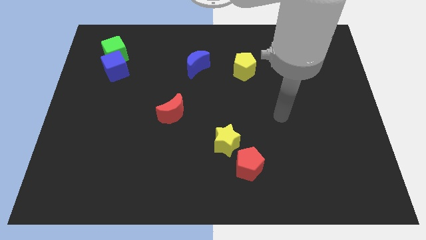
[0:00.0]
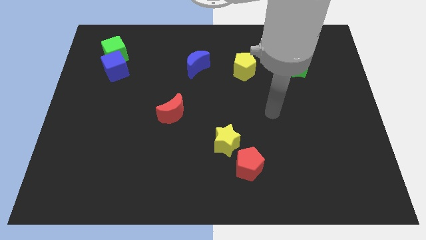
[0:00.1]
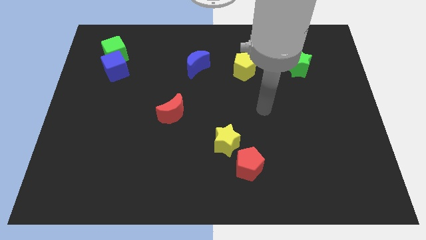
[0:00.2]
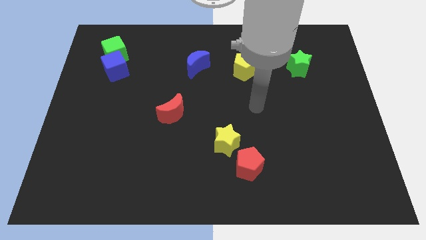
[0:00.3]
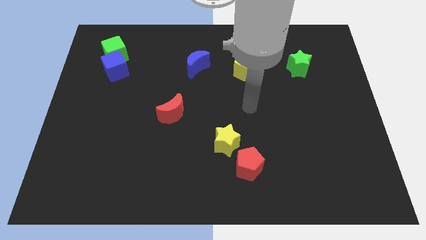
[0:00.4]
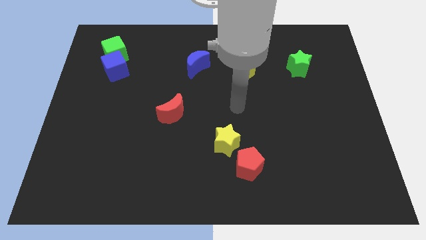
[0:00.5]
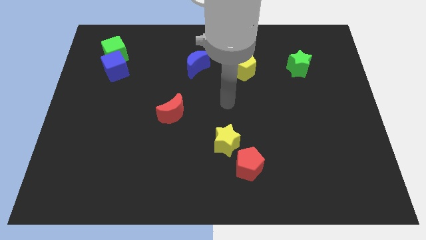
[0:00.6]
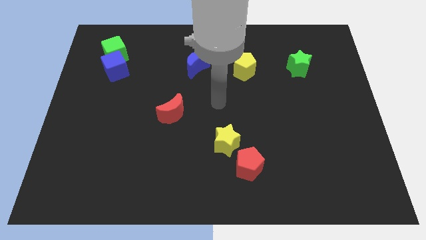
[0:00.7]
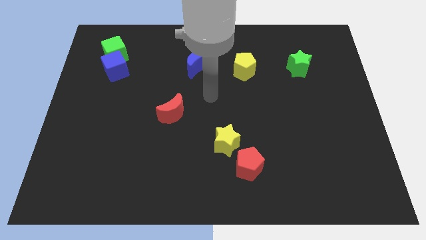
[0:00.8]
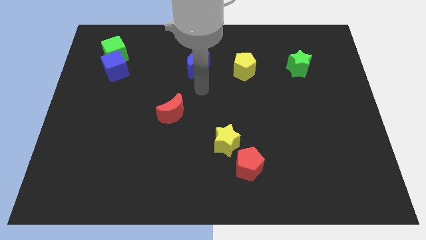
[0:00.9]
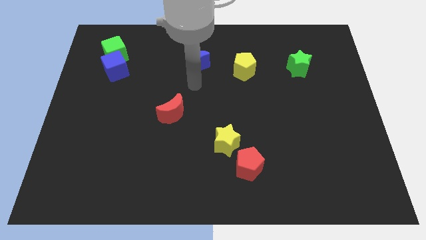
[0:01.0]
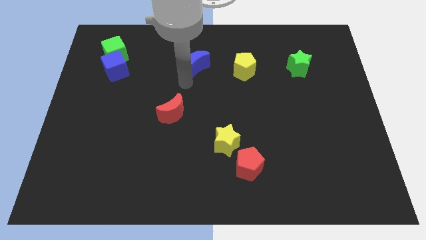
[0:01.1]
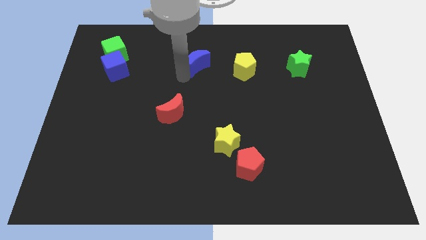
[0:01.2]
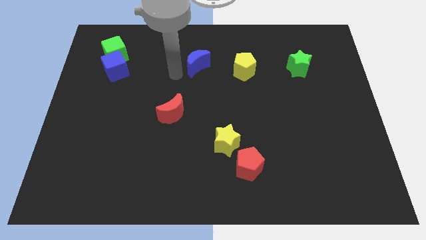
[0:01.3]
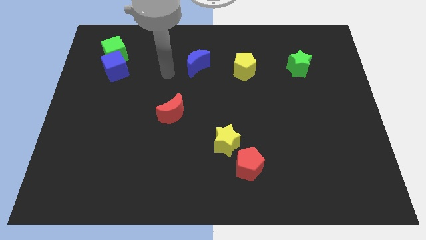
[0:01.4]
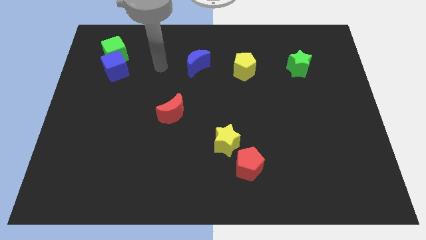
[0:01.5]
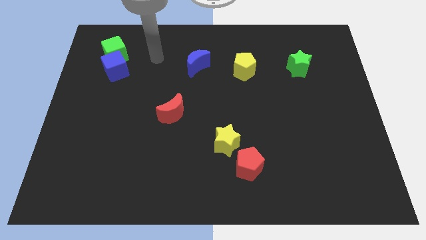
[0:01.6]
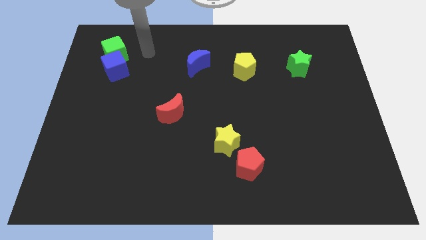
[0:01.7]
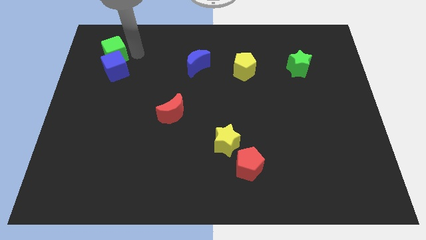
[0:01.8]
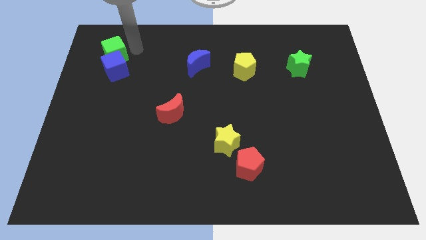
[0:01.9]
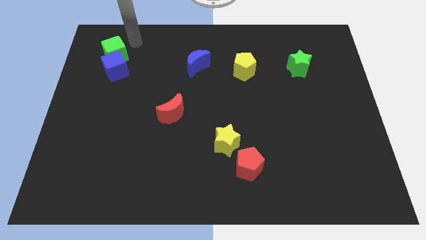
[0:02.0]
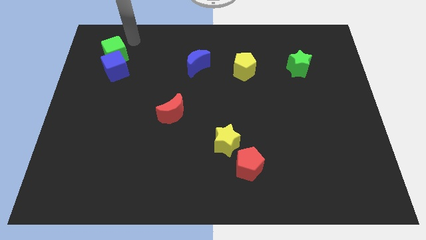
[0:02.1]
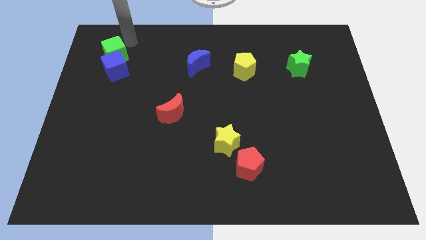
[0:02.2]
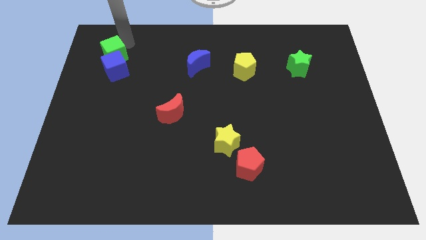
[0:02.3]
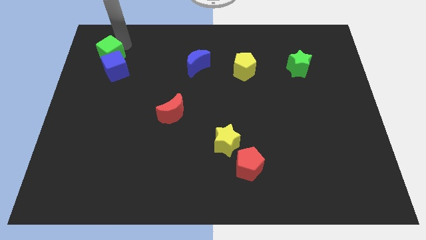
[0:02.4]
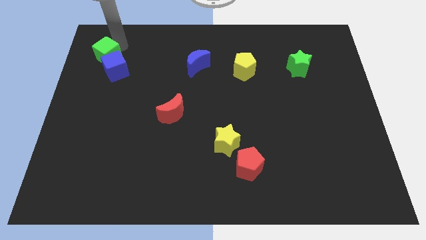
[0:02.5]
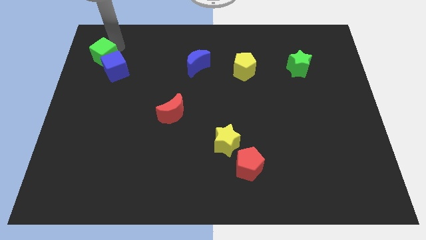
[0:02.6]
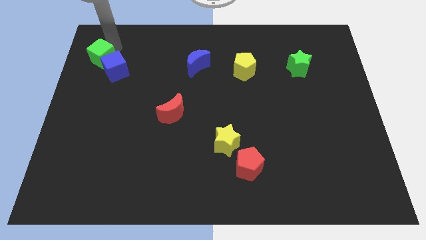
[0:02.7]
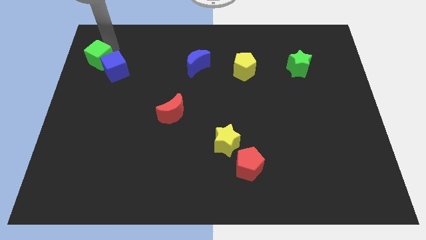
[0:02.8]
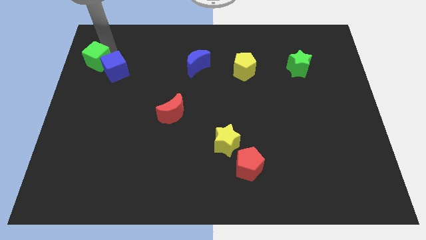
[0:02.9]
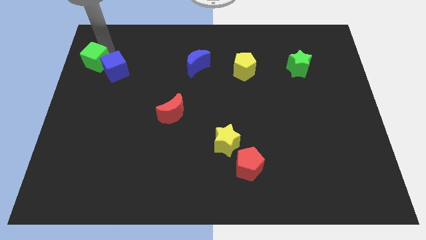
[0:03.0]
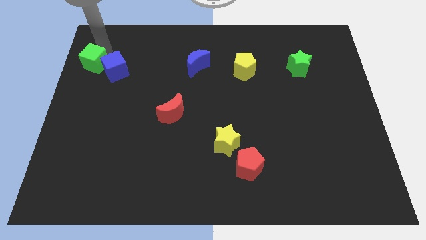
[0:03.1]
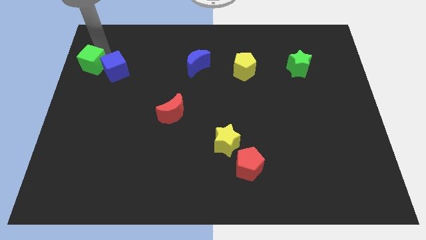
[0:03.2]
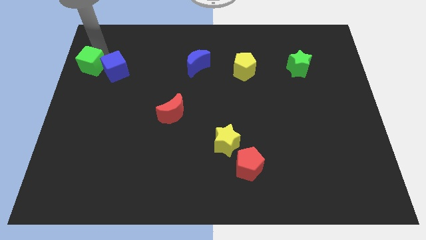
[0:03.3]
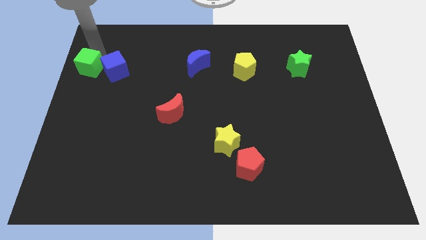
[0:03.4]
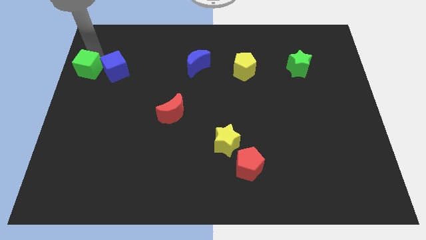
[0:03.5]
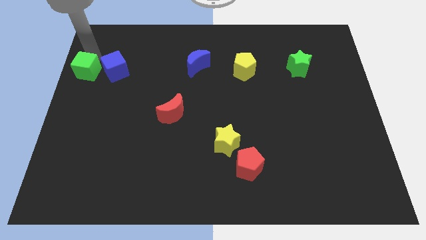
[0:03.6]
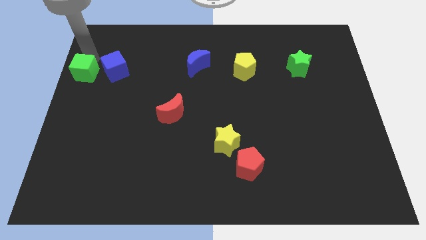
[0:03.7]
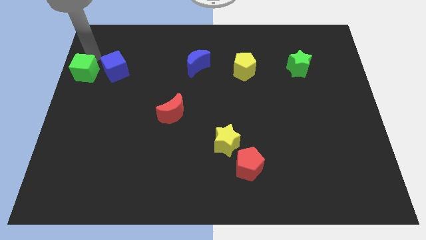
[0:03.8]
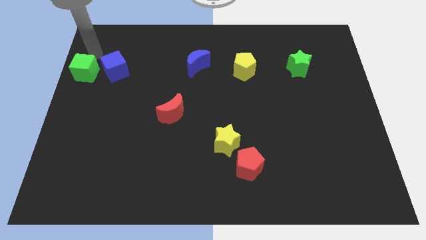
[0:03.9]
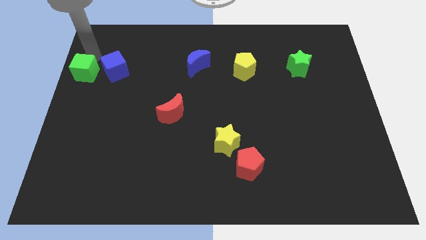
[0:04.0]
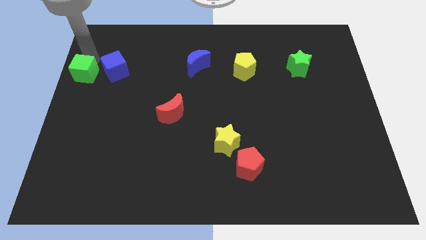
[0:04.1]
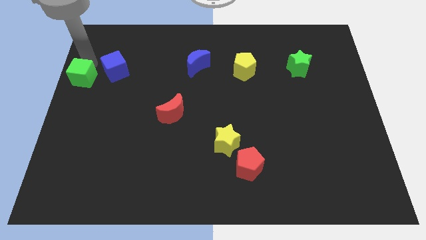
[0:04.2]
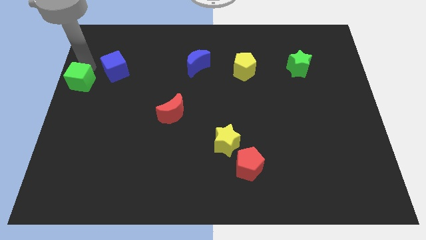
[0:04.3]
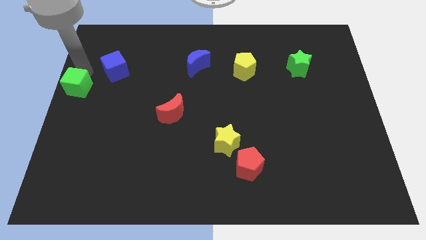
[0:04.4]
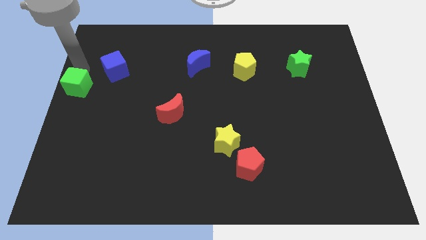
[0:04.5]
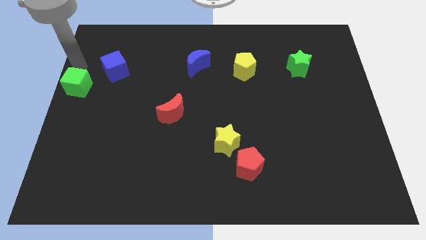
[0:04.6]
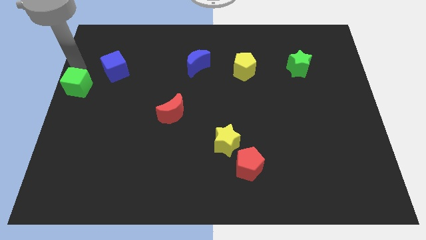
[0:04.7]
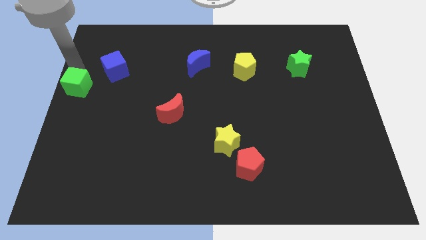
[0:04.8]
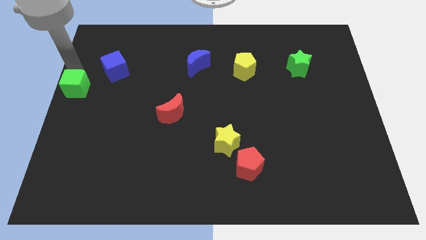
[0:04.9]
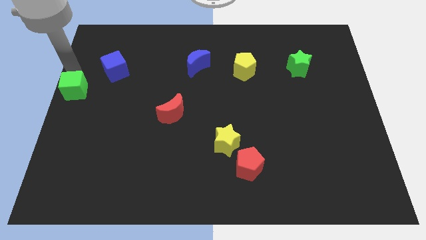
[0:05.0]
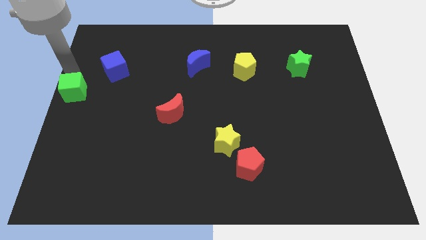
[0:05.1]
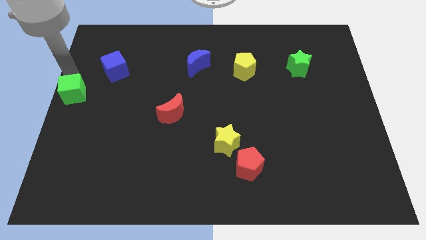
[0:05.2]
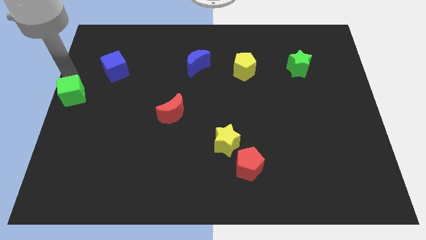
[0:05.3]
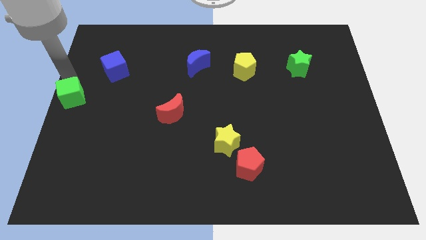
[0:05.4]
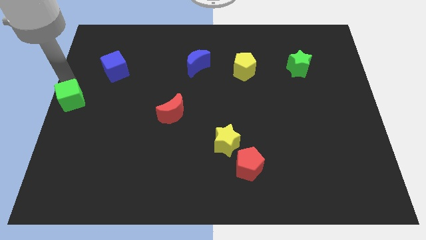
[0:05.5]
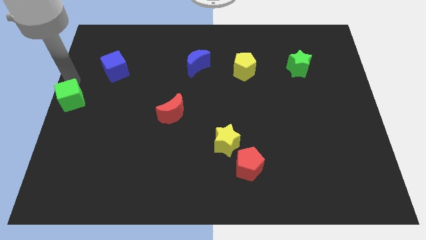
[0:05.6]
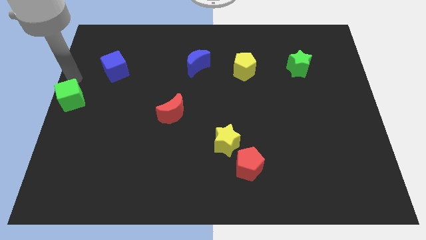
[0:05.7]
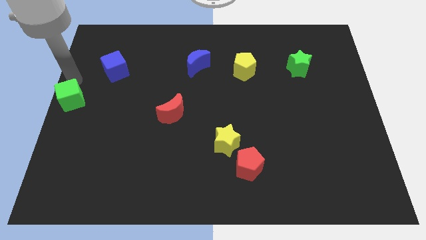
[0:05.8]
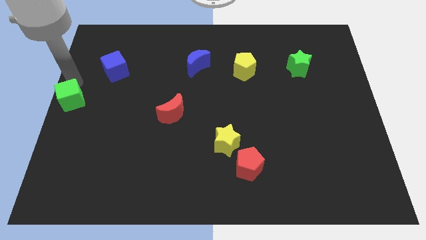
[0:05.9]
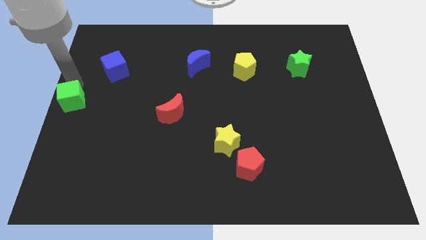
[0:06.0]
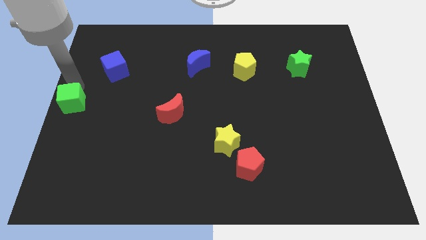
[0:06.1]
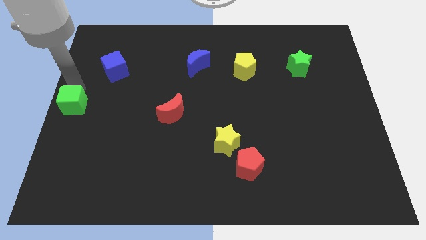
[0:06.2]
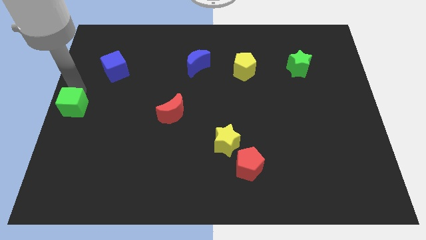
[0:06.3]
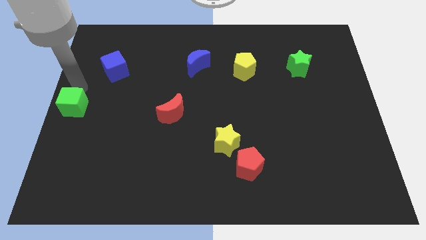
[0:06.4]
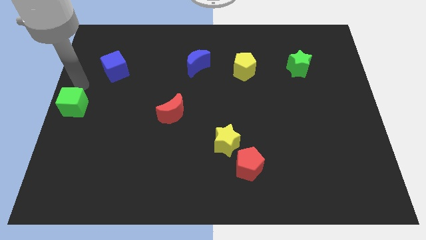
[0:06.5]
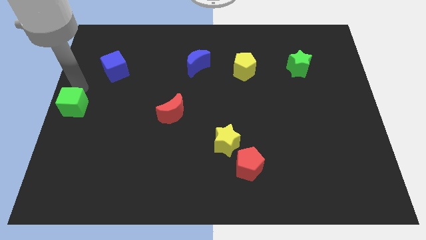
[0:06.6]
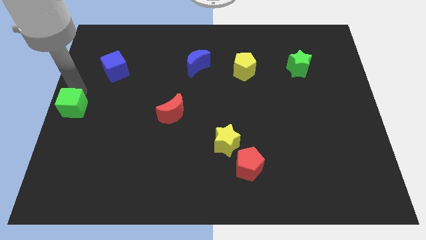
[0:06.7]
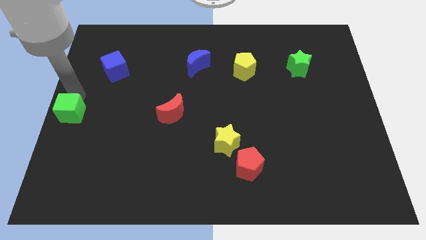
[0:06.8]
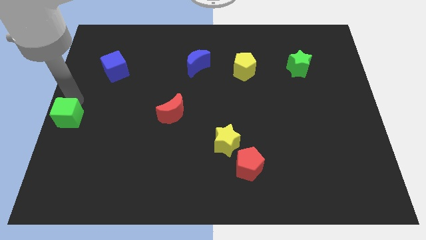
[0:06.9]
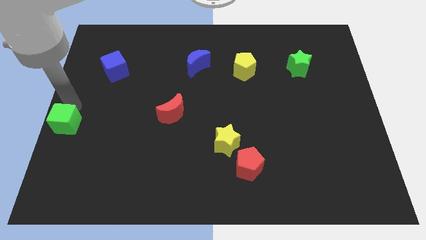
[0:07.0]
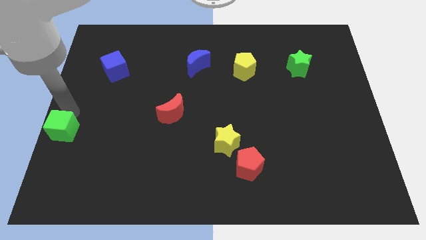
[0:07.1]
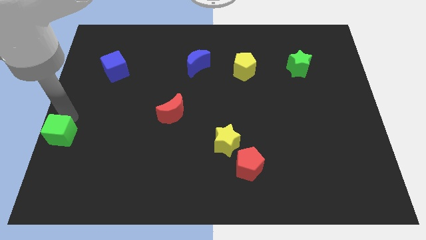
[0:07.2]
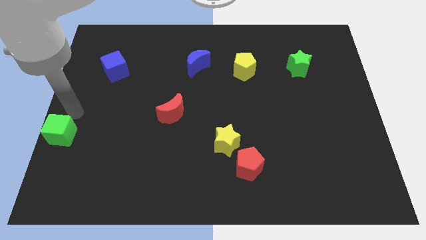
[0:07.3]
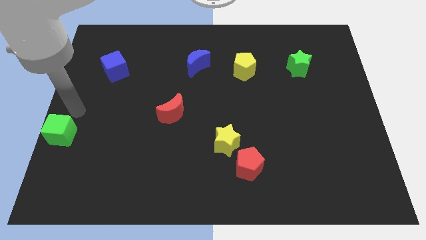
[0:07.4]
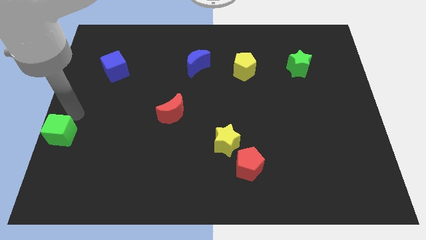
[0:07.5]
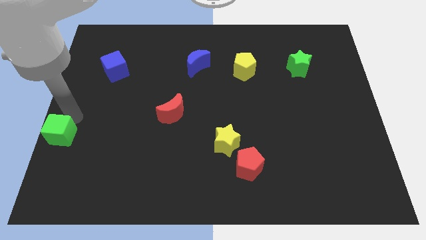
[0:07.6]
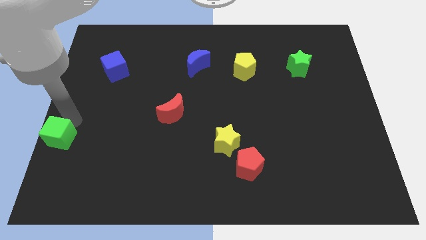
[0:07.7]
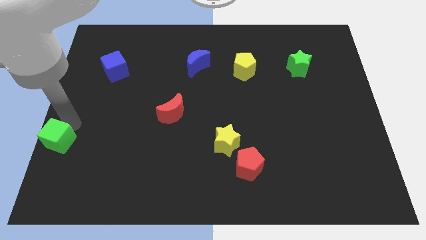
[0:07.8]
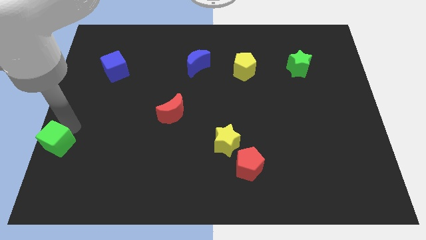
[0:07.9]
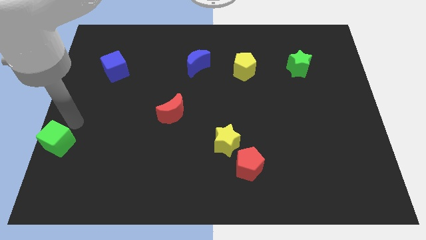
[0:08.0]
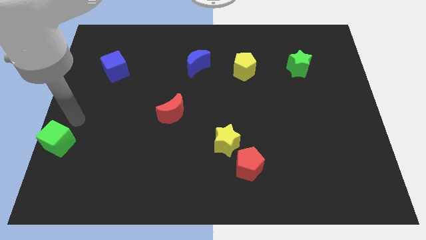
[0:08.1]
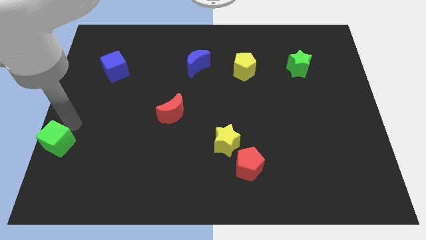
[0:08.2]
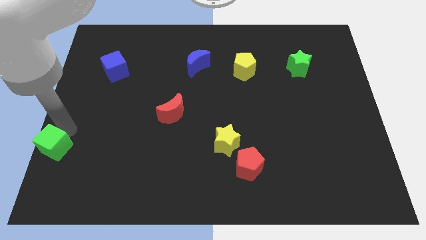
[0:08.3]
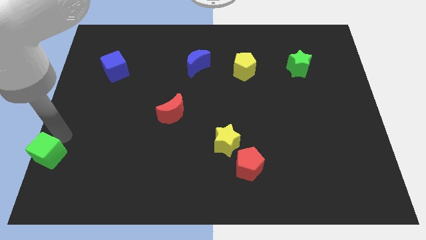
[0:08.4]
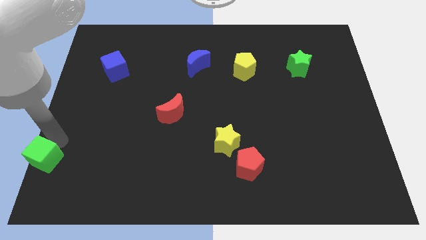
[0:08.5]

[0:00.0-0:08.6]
put the green cube to the bottom left of the board
